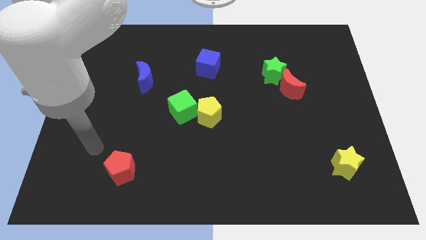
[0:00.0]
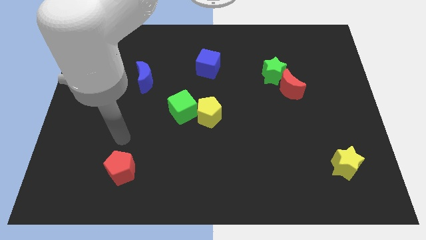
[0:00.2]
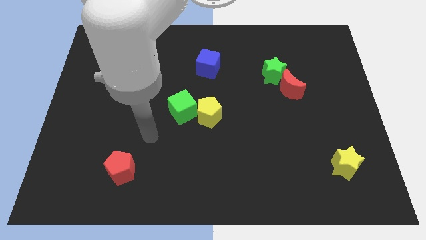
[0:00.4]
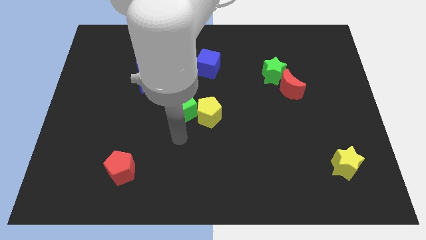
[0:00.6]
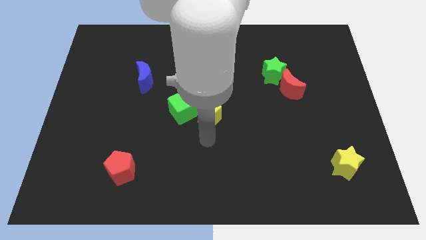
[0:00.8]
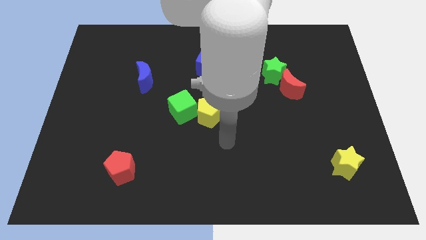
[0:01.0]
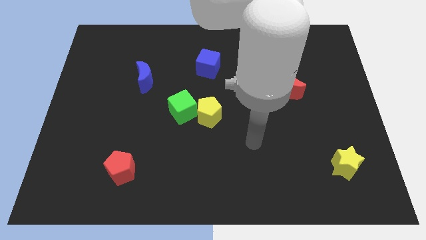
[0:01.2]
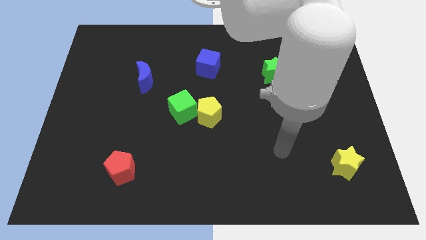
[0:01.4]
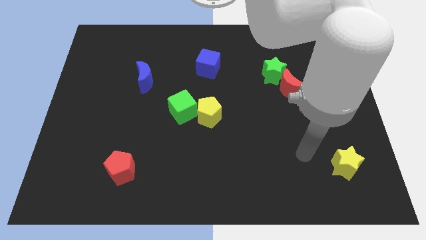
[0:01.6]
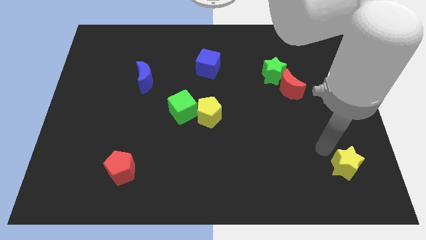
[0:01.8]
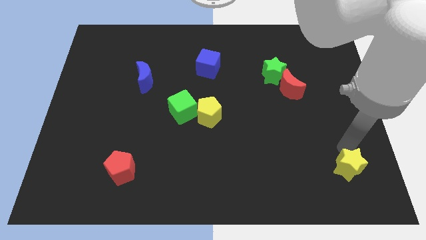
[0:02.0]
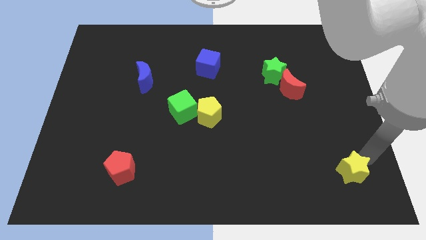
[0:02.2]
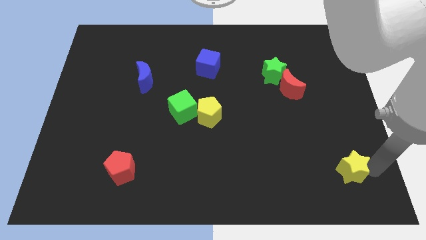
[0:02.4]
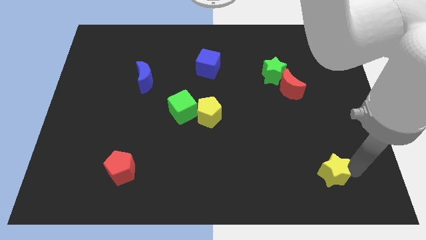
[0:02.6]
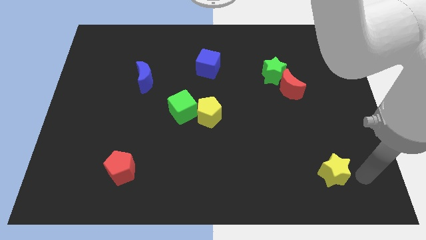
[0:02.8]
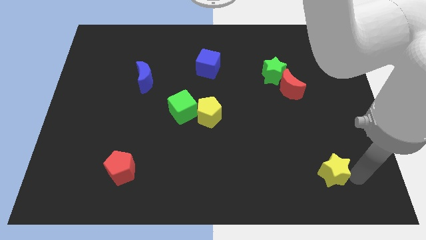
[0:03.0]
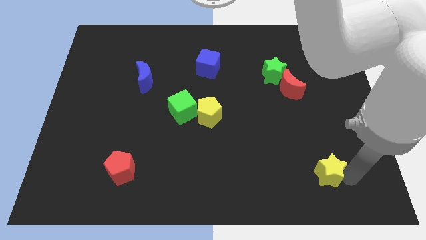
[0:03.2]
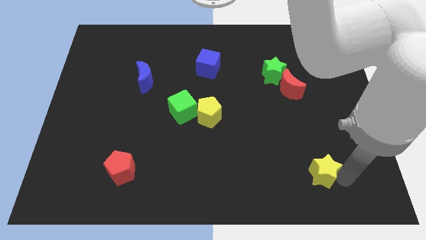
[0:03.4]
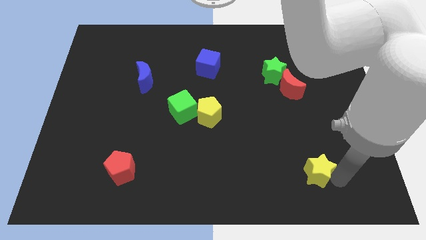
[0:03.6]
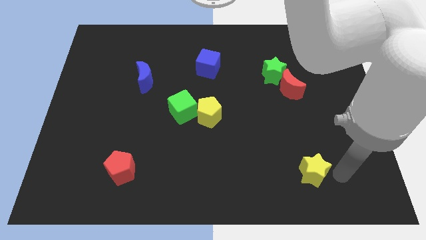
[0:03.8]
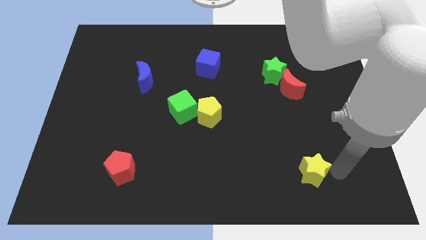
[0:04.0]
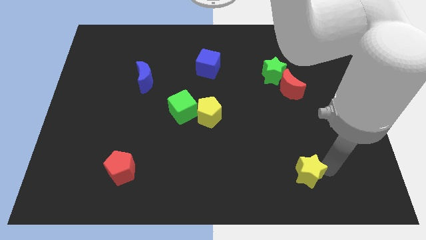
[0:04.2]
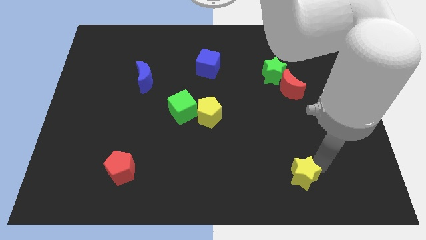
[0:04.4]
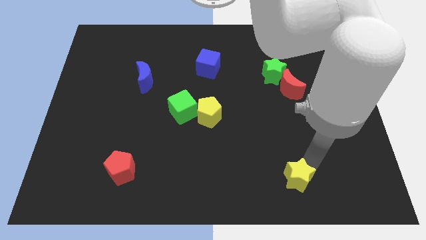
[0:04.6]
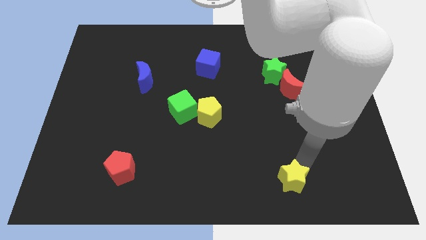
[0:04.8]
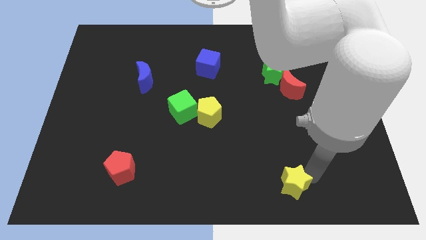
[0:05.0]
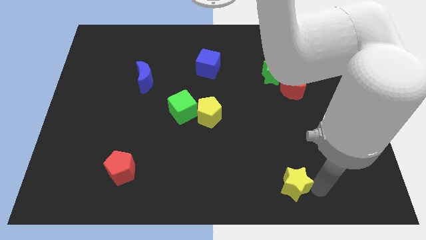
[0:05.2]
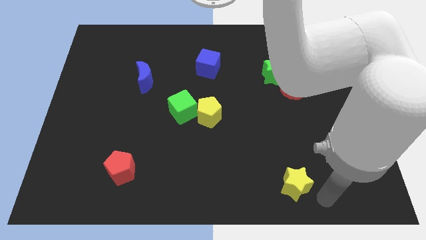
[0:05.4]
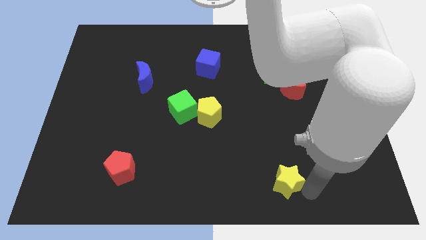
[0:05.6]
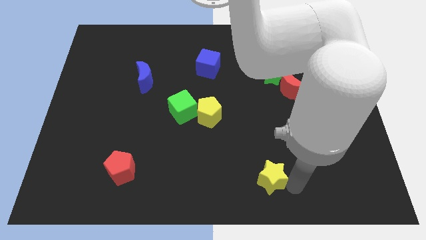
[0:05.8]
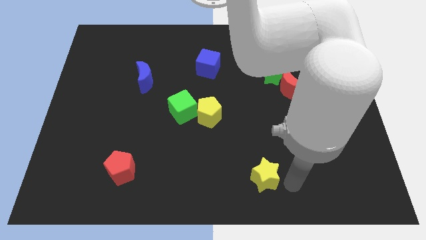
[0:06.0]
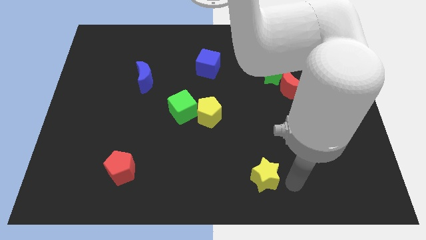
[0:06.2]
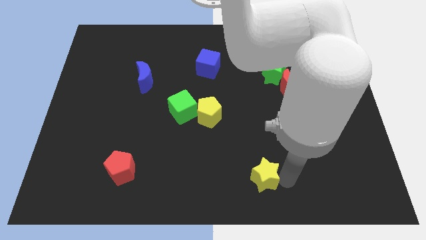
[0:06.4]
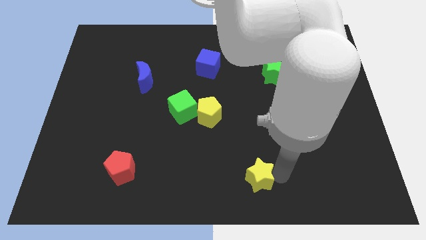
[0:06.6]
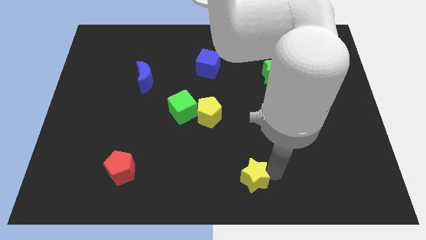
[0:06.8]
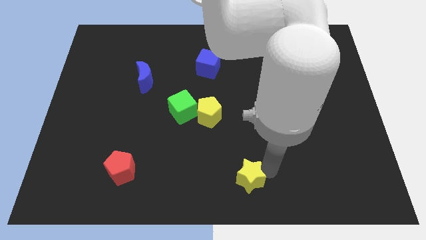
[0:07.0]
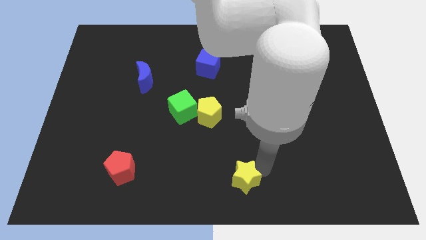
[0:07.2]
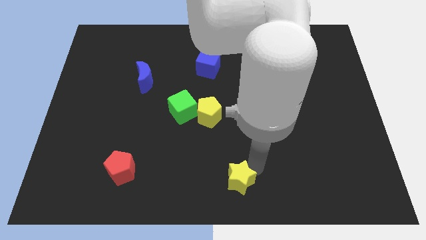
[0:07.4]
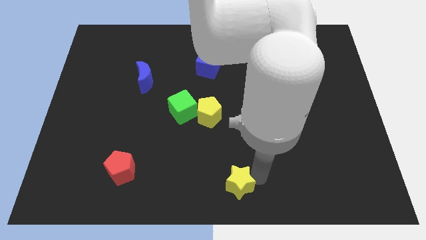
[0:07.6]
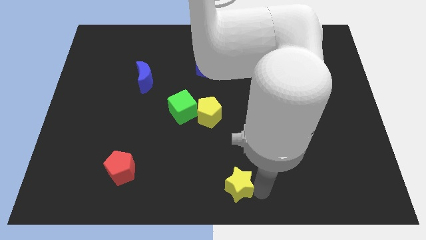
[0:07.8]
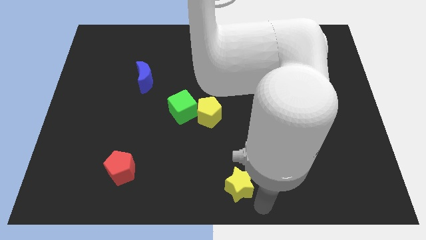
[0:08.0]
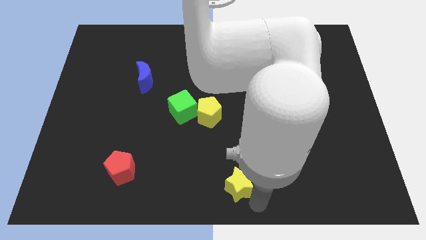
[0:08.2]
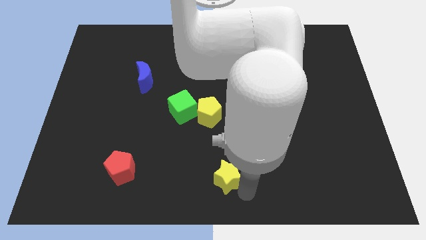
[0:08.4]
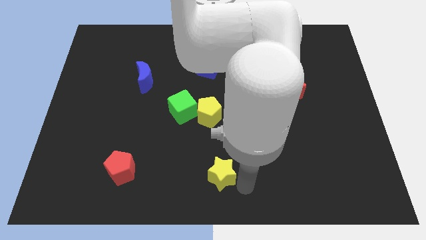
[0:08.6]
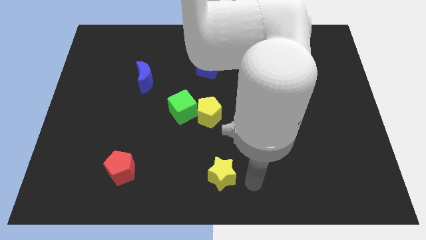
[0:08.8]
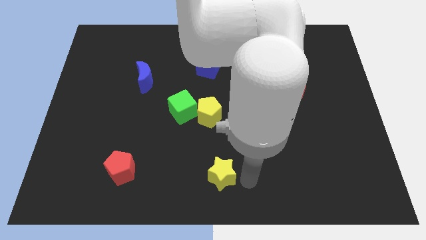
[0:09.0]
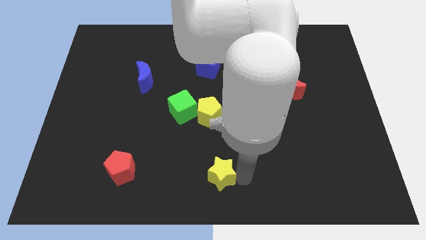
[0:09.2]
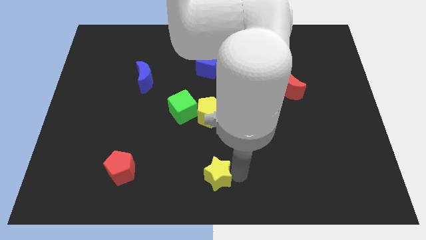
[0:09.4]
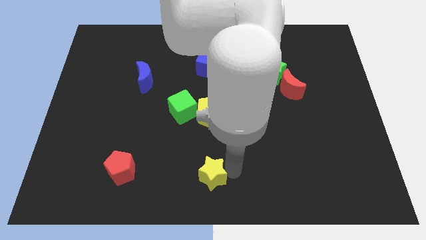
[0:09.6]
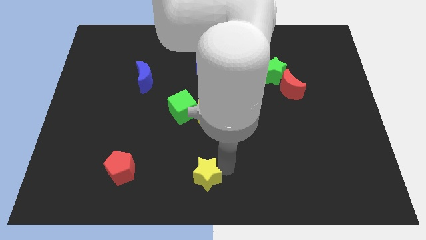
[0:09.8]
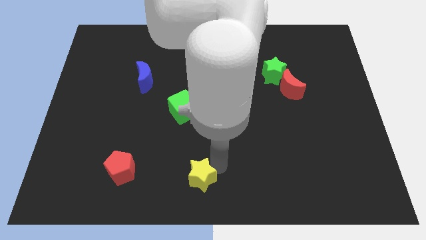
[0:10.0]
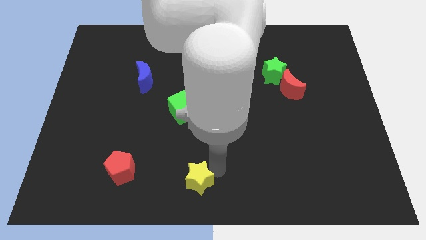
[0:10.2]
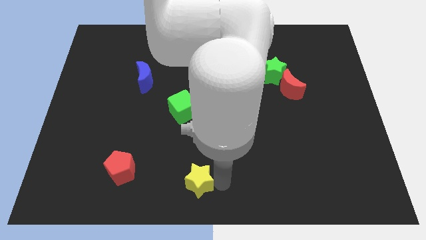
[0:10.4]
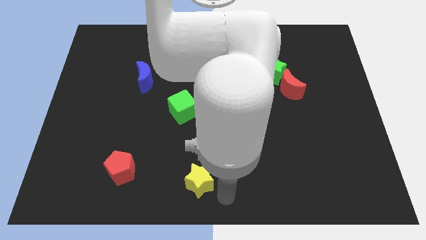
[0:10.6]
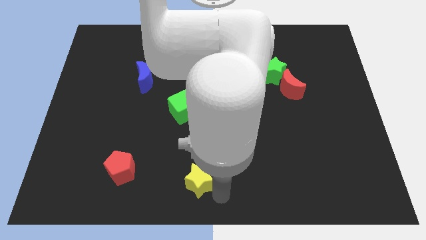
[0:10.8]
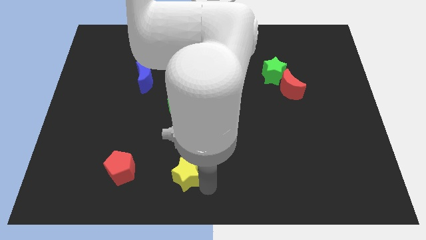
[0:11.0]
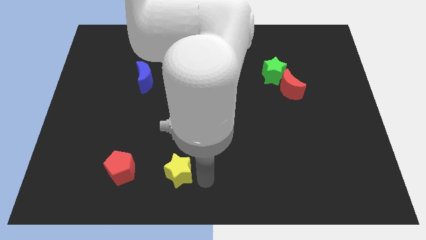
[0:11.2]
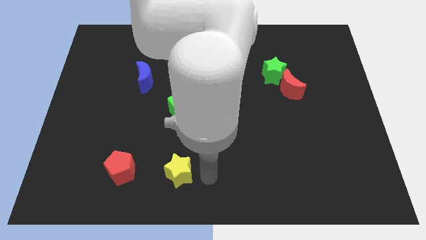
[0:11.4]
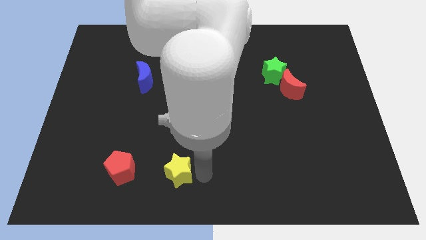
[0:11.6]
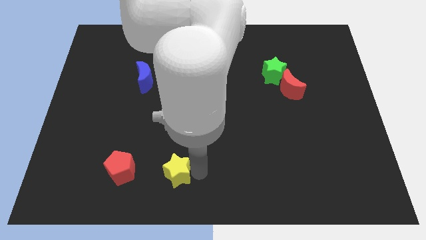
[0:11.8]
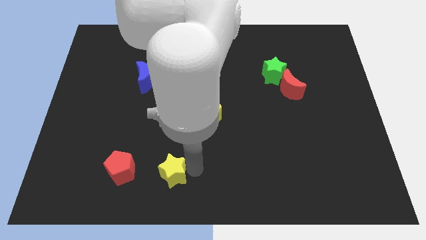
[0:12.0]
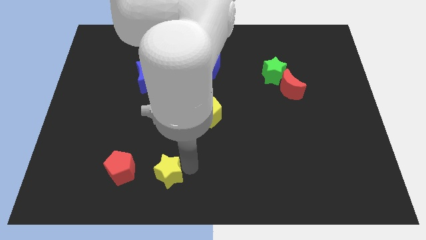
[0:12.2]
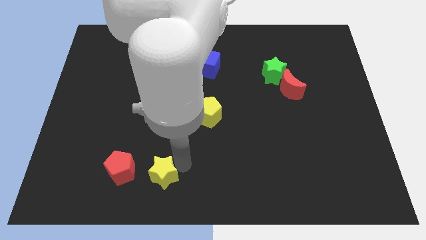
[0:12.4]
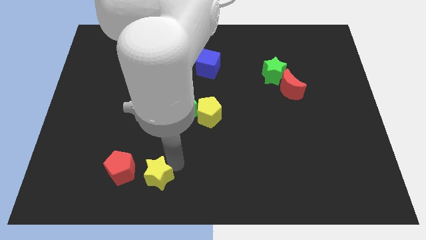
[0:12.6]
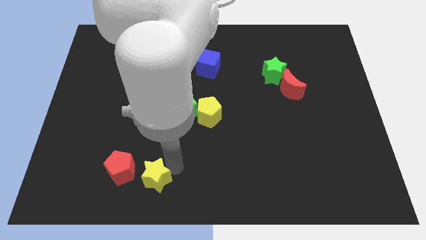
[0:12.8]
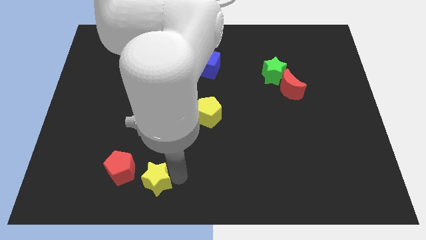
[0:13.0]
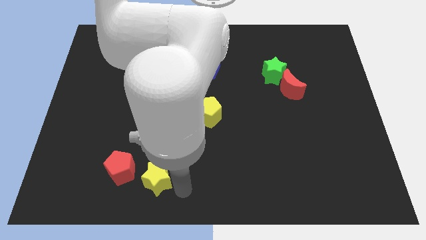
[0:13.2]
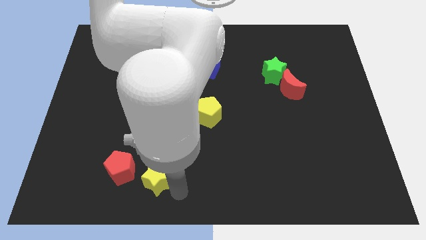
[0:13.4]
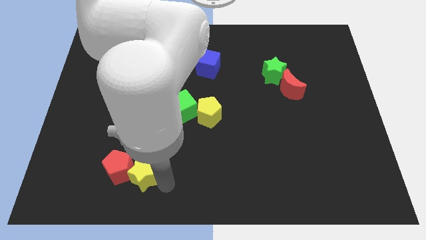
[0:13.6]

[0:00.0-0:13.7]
move the yellow star close to the red pentagon

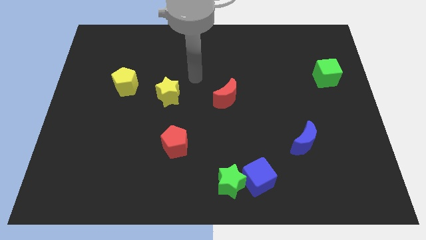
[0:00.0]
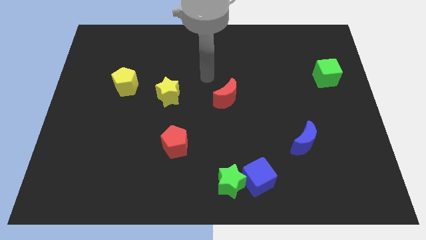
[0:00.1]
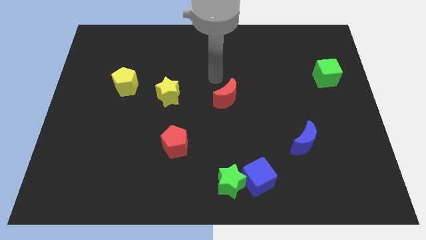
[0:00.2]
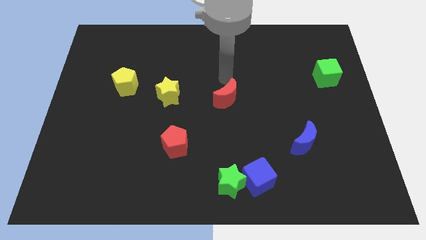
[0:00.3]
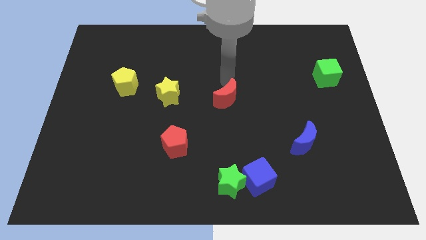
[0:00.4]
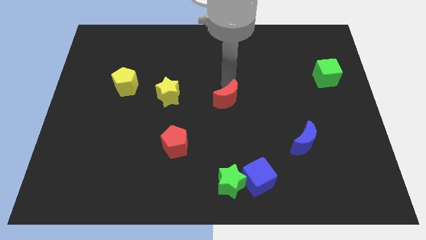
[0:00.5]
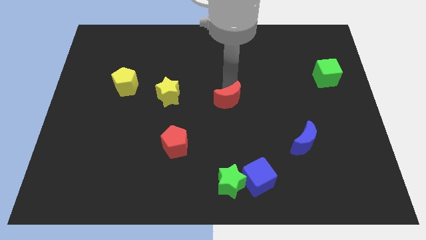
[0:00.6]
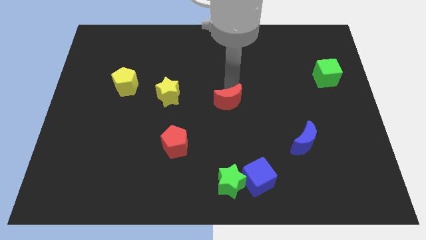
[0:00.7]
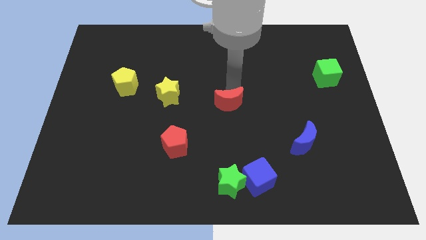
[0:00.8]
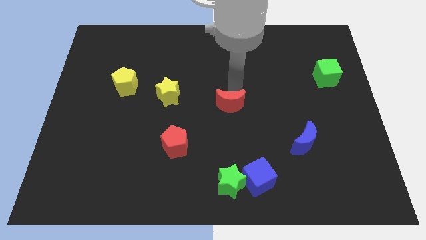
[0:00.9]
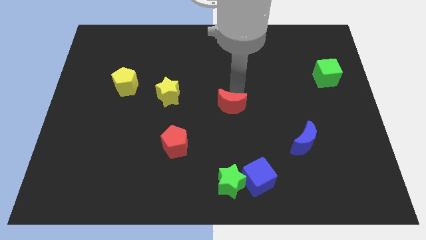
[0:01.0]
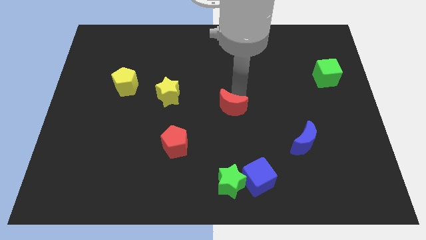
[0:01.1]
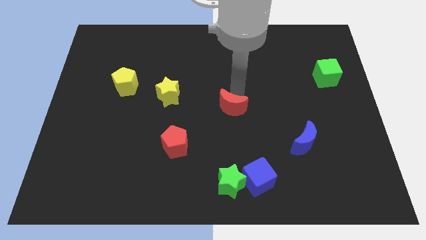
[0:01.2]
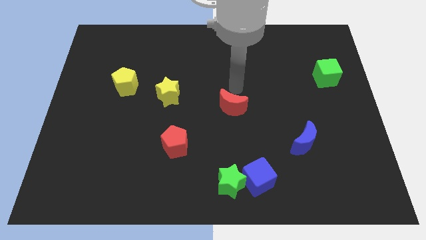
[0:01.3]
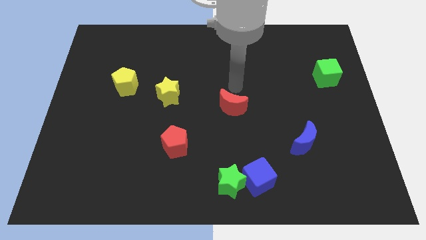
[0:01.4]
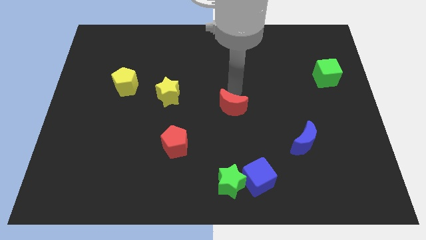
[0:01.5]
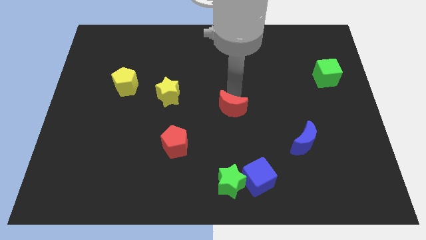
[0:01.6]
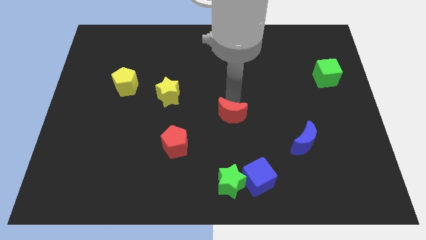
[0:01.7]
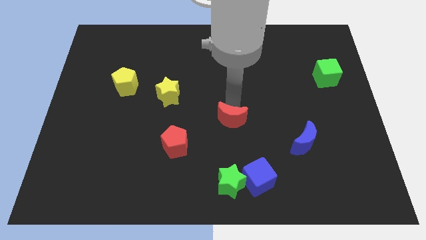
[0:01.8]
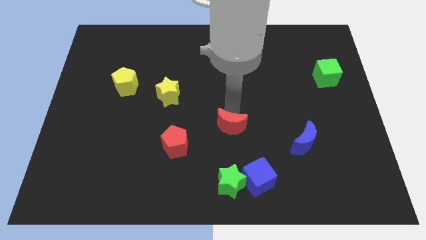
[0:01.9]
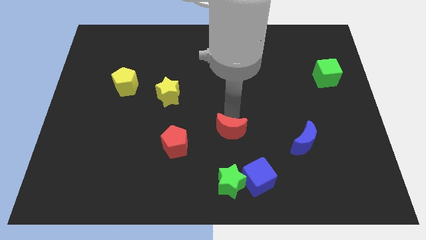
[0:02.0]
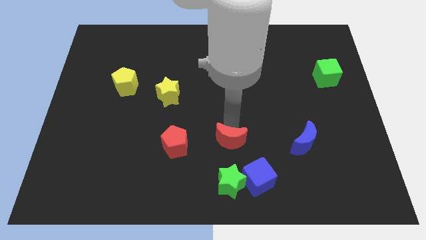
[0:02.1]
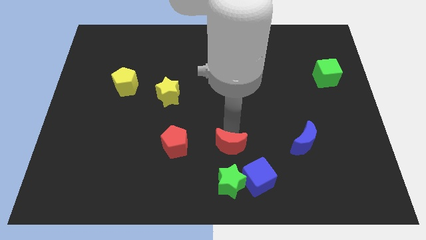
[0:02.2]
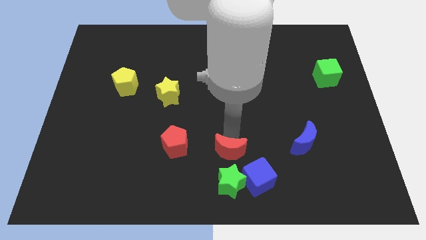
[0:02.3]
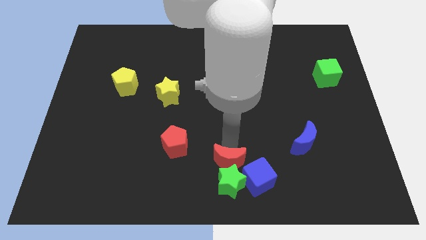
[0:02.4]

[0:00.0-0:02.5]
put the red moon to the green star
